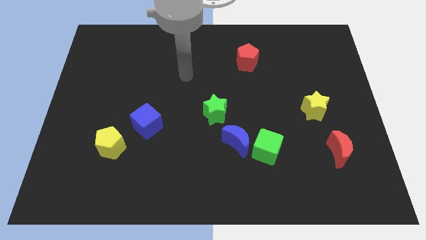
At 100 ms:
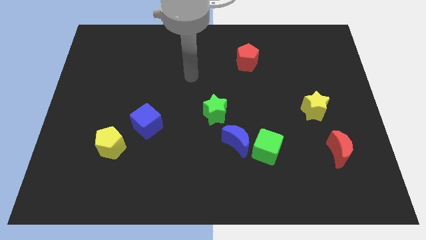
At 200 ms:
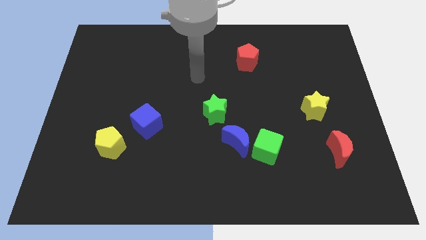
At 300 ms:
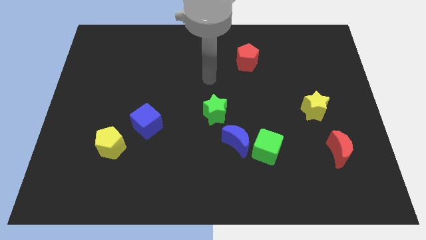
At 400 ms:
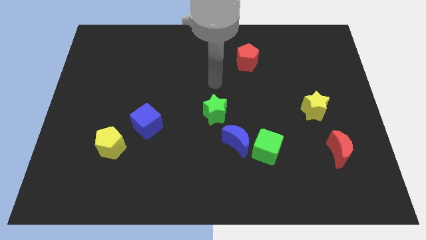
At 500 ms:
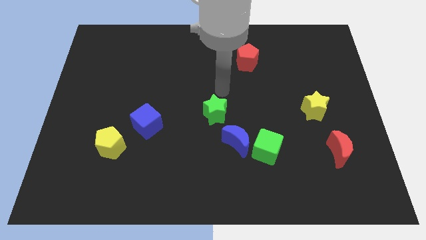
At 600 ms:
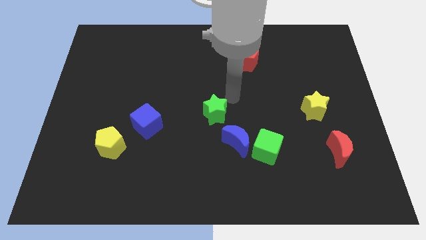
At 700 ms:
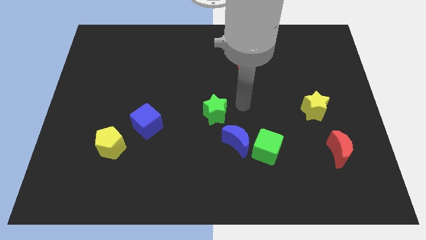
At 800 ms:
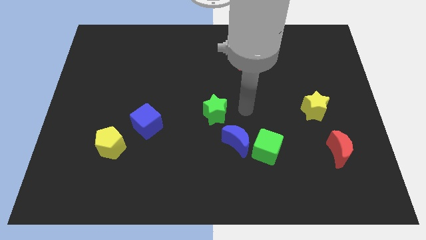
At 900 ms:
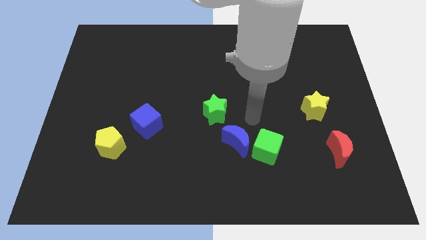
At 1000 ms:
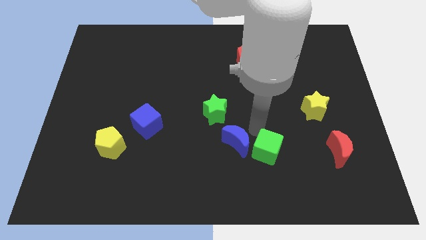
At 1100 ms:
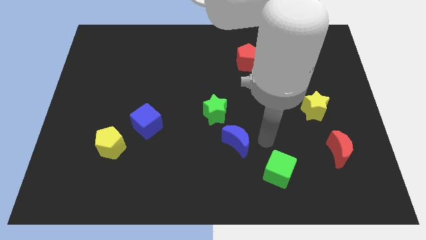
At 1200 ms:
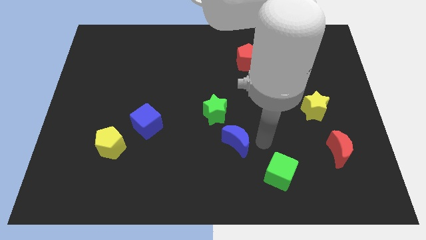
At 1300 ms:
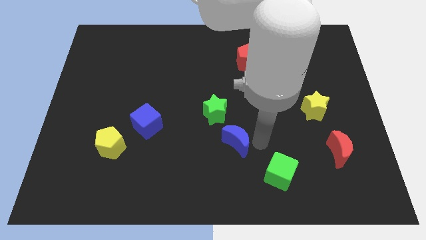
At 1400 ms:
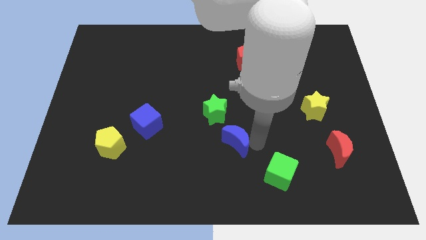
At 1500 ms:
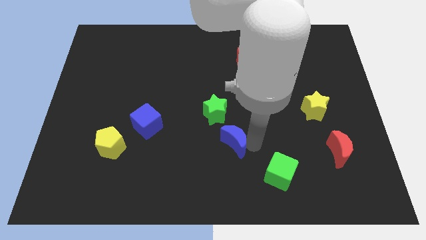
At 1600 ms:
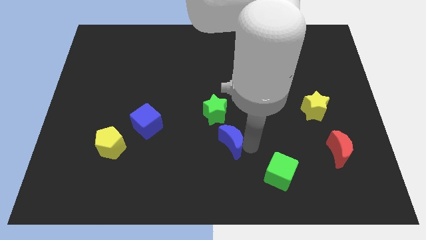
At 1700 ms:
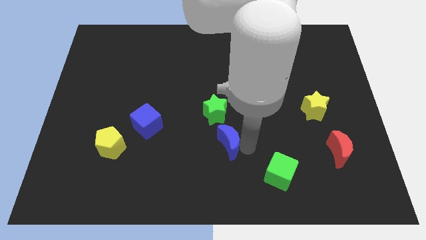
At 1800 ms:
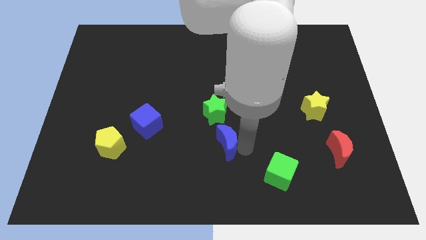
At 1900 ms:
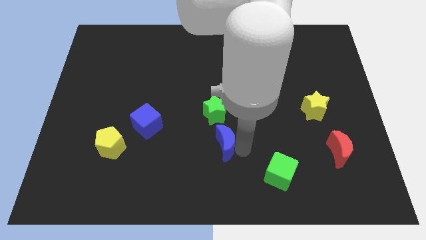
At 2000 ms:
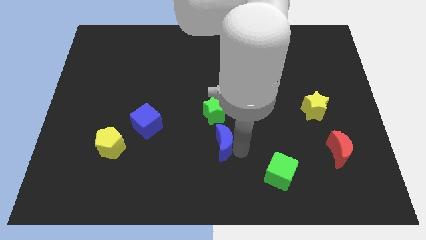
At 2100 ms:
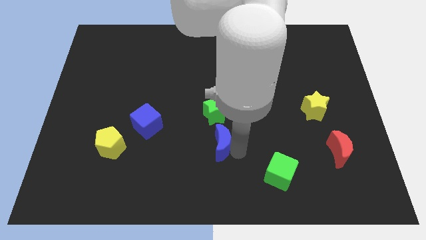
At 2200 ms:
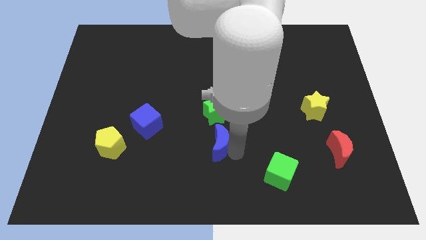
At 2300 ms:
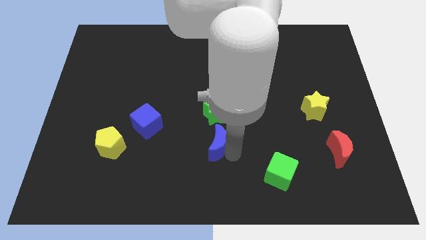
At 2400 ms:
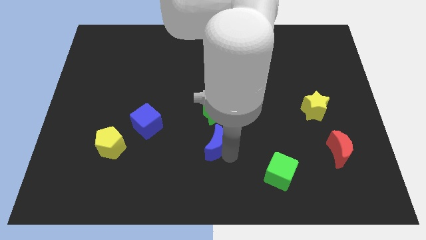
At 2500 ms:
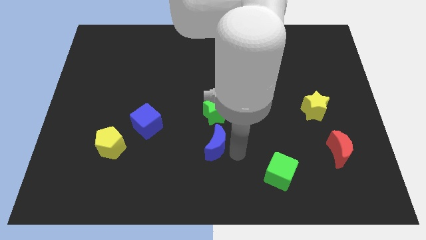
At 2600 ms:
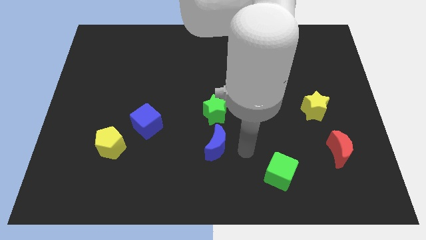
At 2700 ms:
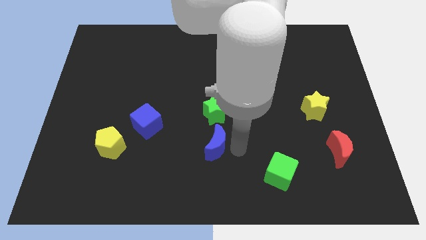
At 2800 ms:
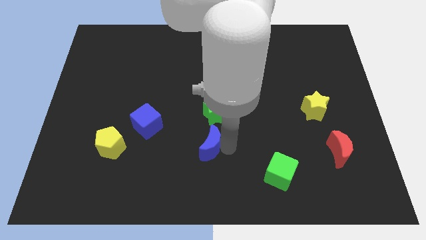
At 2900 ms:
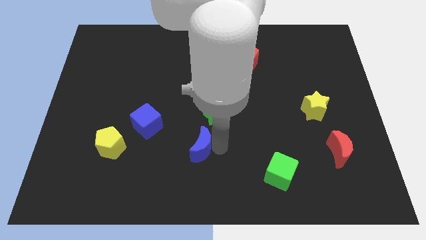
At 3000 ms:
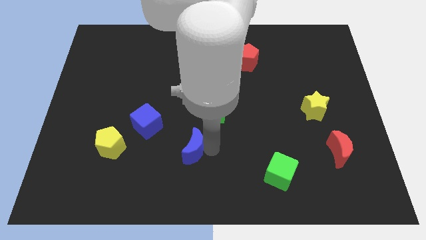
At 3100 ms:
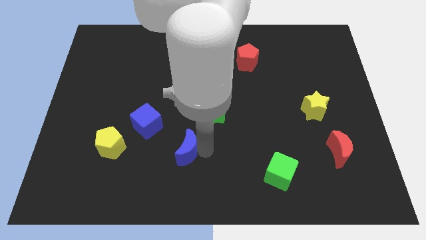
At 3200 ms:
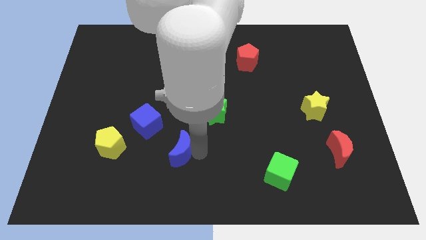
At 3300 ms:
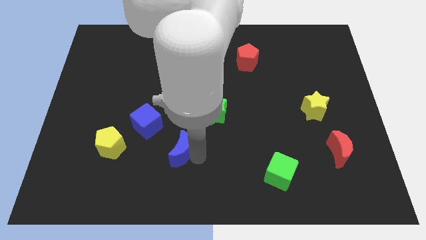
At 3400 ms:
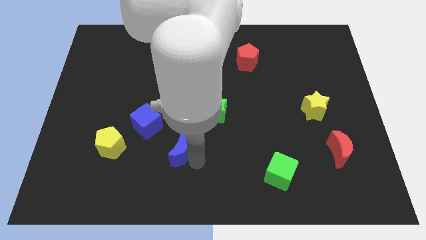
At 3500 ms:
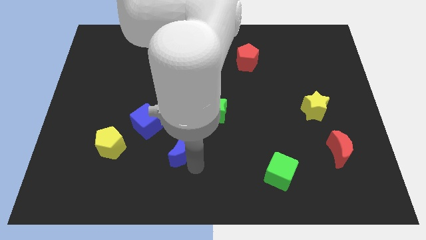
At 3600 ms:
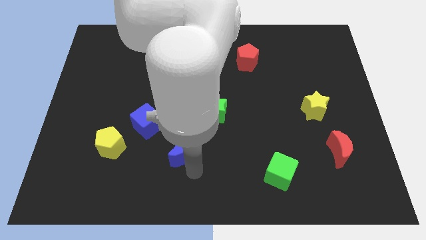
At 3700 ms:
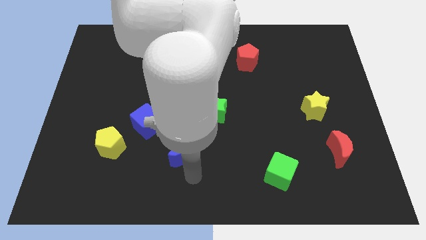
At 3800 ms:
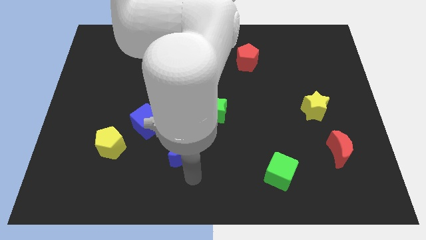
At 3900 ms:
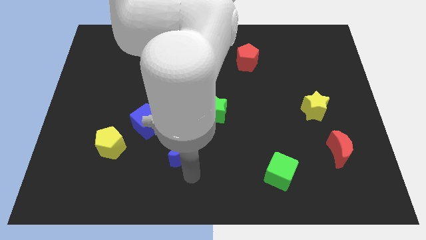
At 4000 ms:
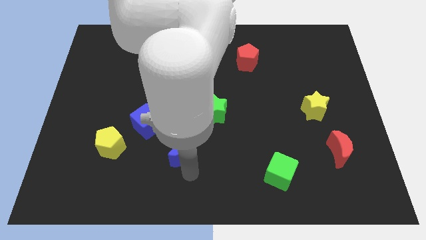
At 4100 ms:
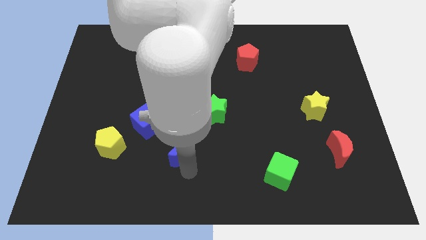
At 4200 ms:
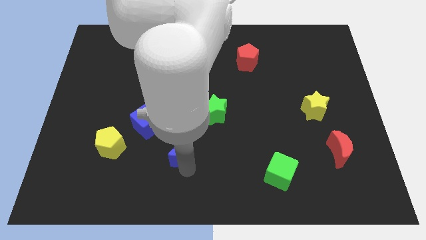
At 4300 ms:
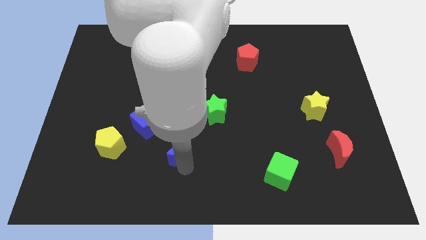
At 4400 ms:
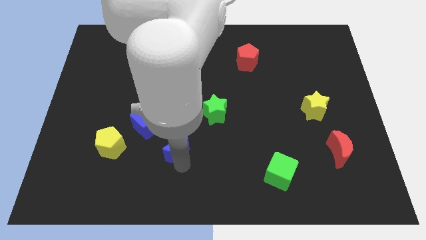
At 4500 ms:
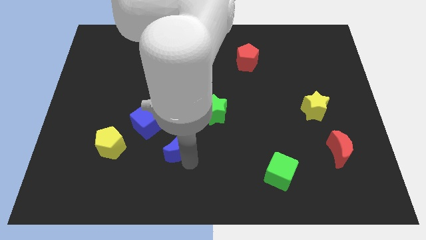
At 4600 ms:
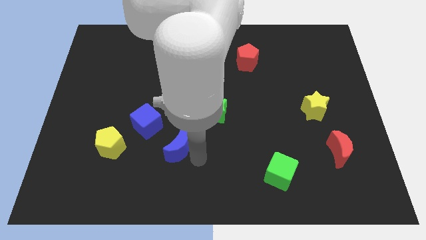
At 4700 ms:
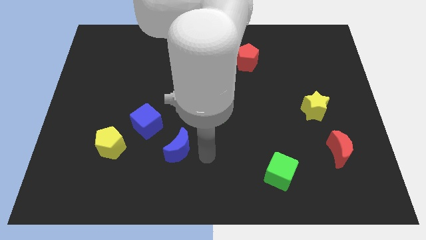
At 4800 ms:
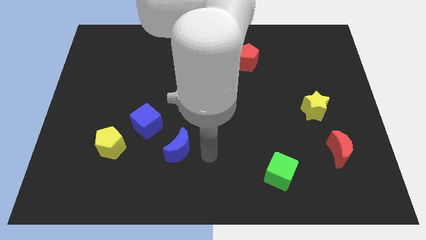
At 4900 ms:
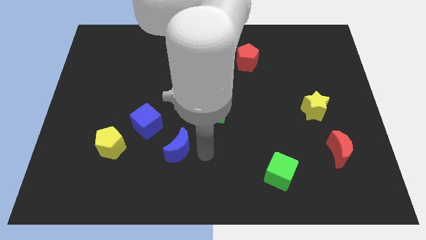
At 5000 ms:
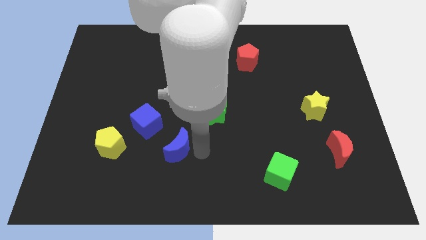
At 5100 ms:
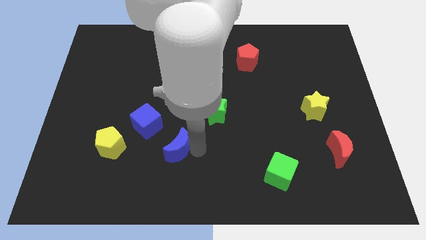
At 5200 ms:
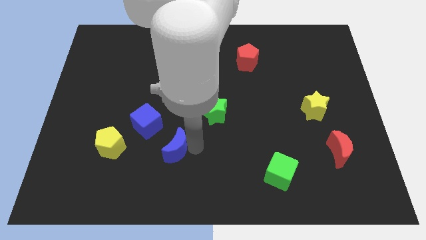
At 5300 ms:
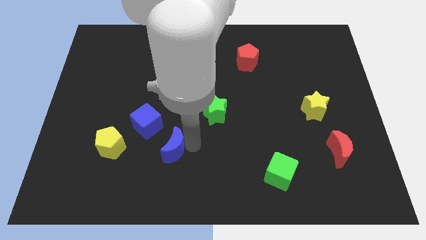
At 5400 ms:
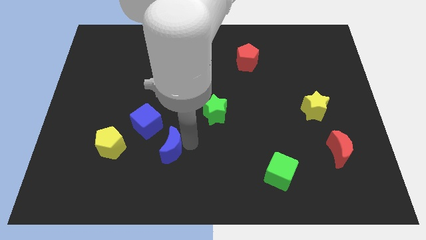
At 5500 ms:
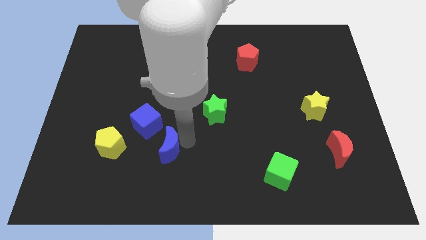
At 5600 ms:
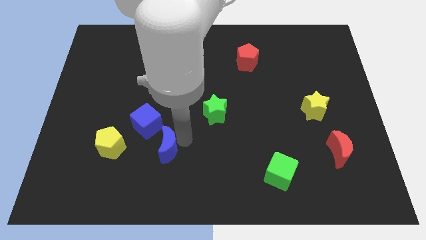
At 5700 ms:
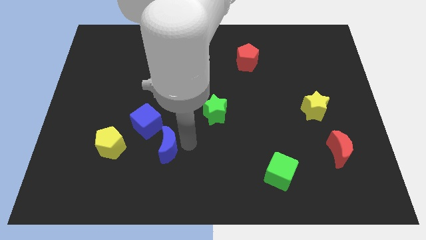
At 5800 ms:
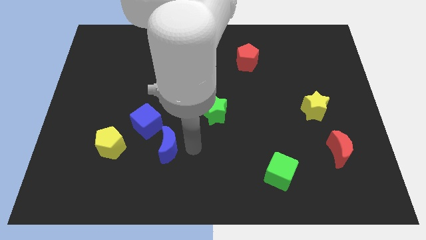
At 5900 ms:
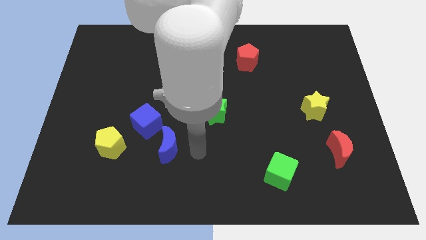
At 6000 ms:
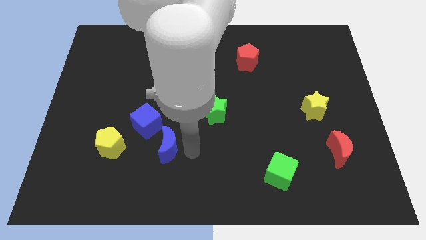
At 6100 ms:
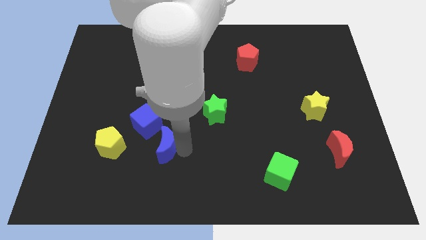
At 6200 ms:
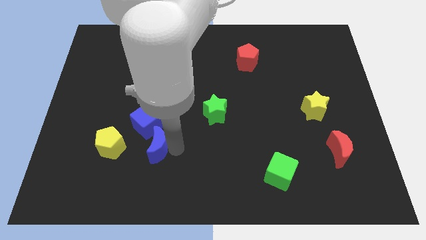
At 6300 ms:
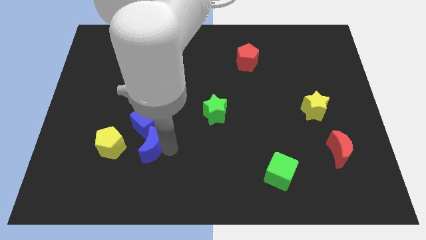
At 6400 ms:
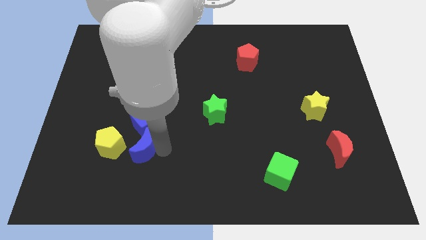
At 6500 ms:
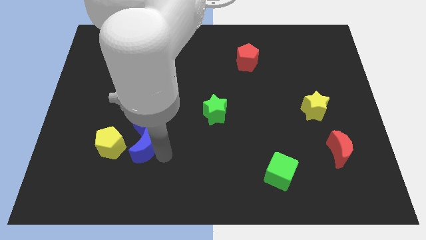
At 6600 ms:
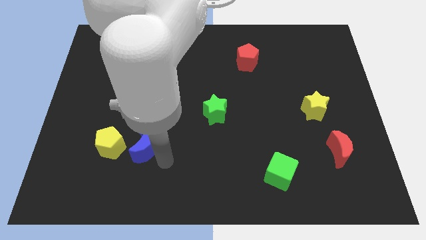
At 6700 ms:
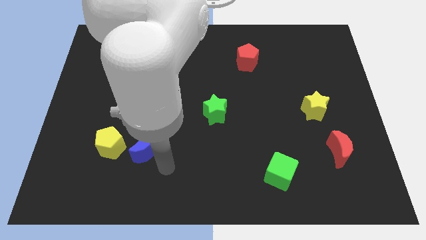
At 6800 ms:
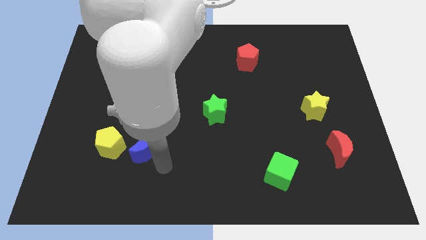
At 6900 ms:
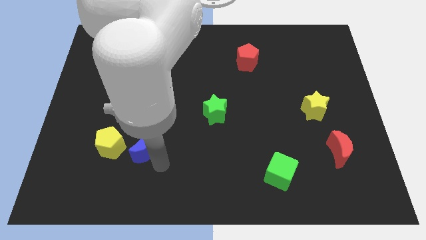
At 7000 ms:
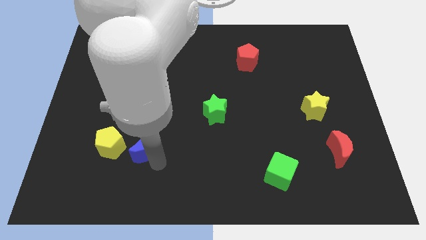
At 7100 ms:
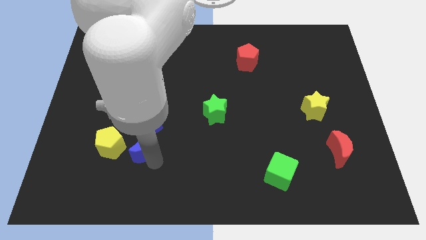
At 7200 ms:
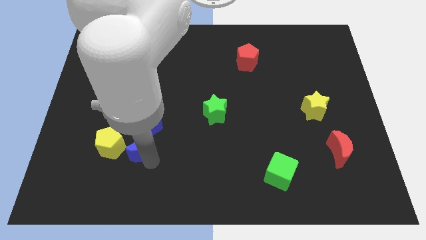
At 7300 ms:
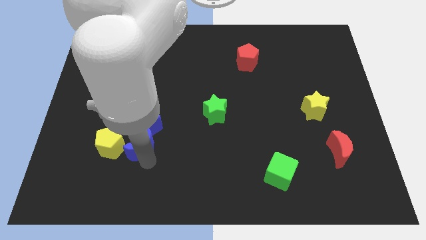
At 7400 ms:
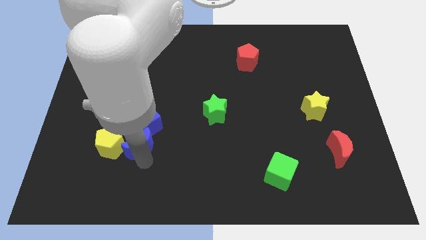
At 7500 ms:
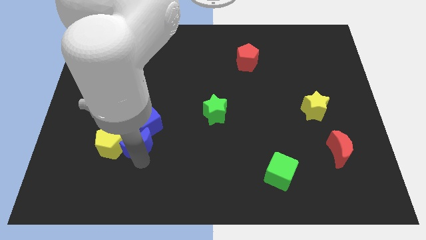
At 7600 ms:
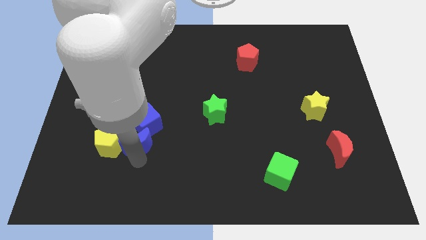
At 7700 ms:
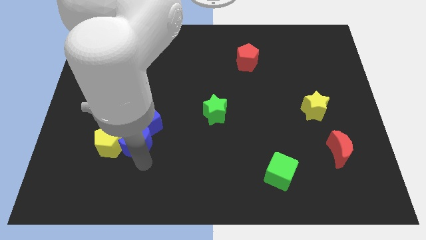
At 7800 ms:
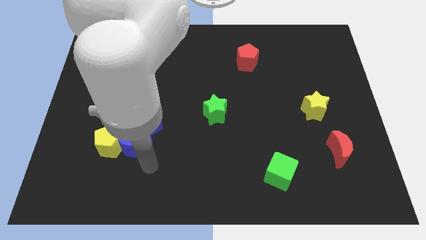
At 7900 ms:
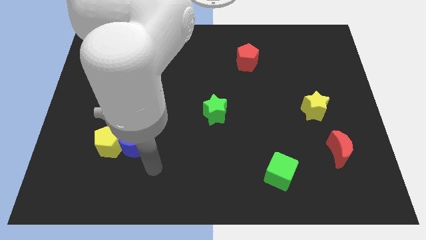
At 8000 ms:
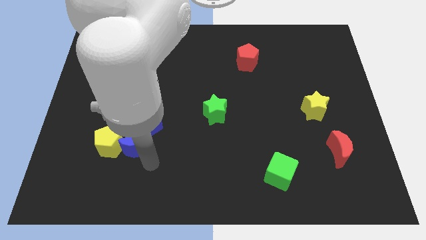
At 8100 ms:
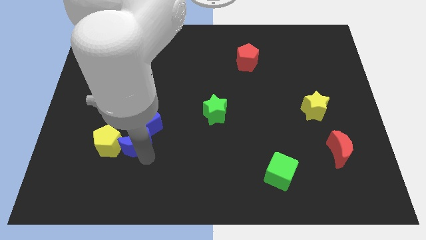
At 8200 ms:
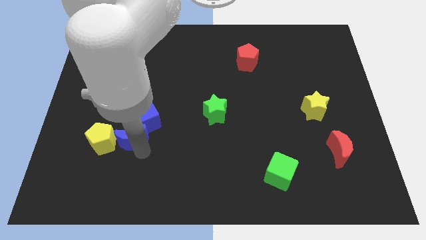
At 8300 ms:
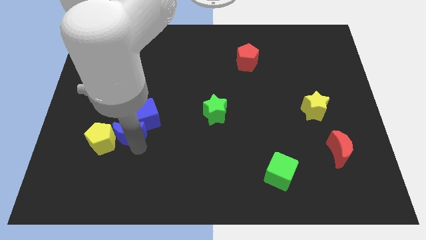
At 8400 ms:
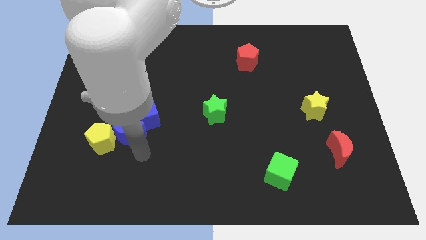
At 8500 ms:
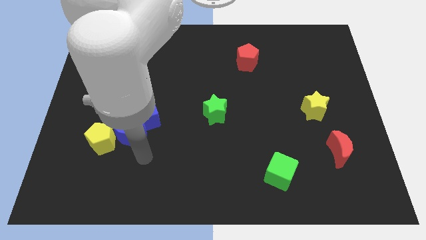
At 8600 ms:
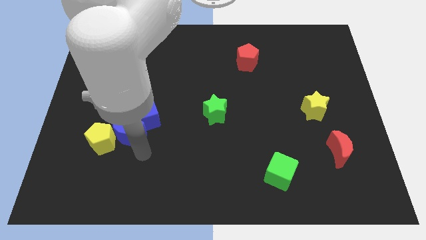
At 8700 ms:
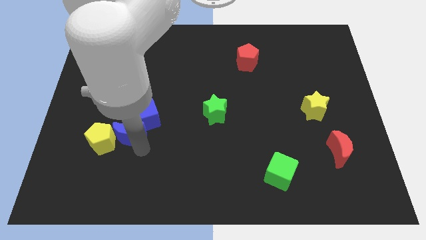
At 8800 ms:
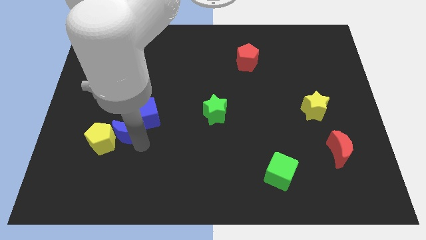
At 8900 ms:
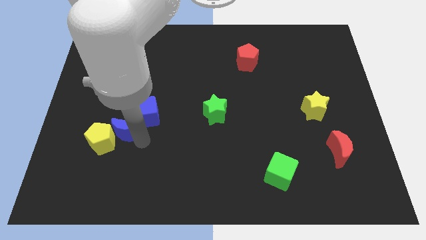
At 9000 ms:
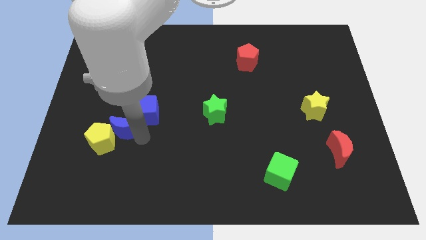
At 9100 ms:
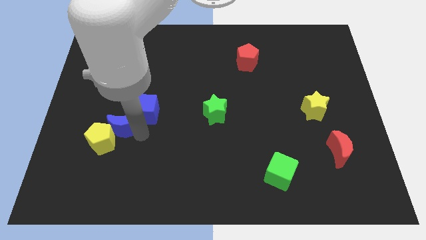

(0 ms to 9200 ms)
move the blue moon above the yellow pentagon
